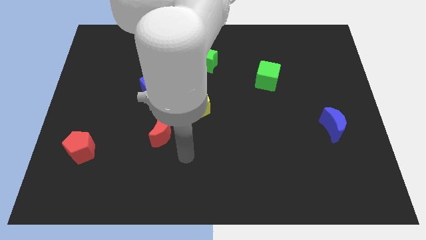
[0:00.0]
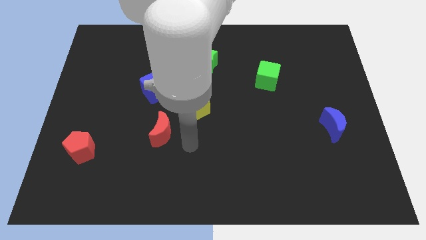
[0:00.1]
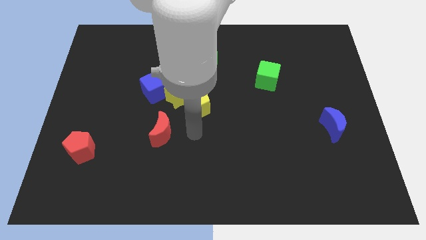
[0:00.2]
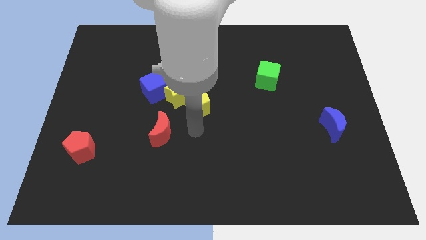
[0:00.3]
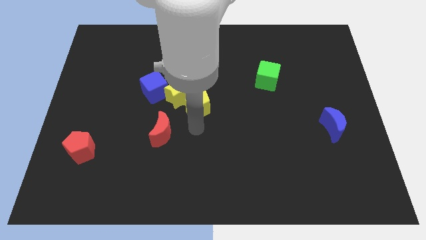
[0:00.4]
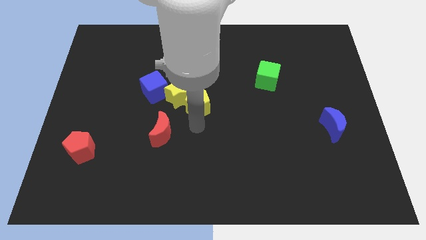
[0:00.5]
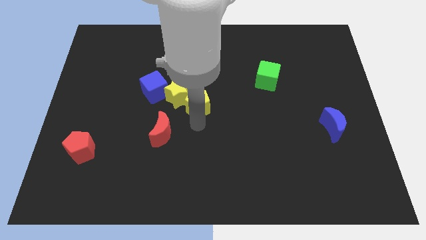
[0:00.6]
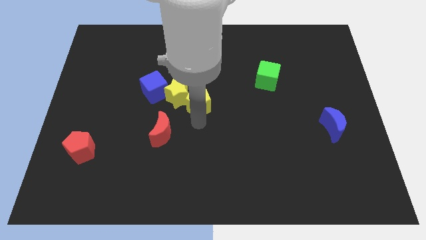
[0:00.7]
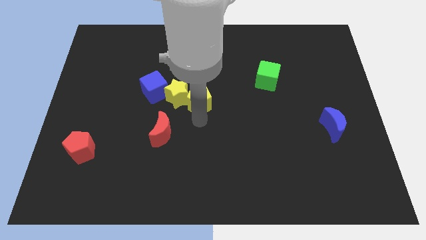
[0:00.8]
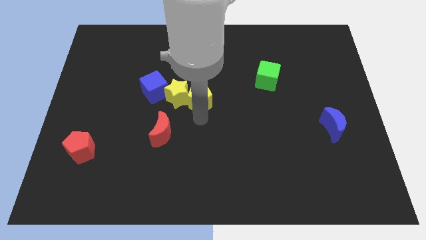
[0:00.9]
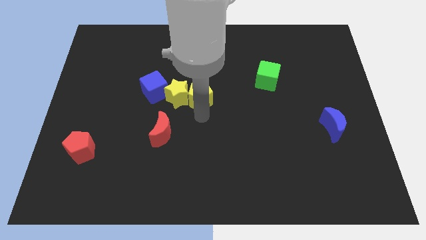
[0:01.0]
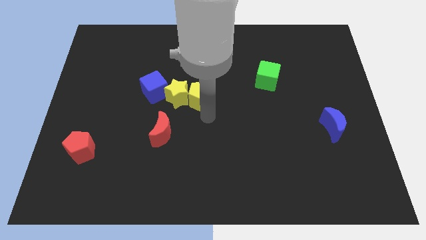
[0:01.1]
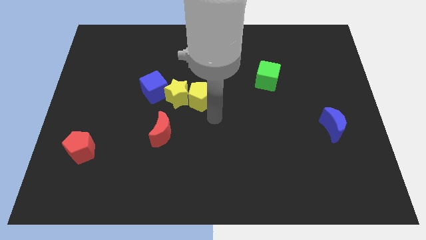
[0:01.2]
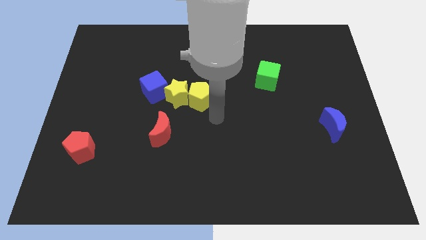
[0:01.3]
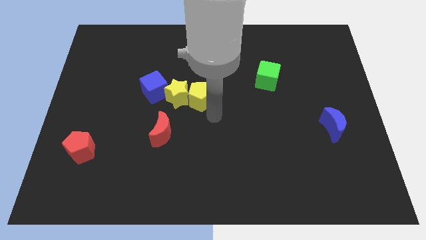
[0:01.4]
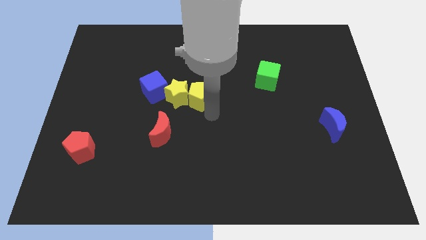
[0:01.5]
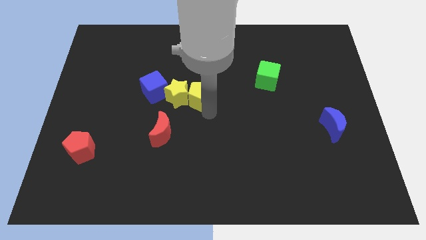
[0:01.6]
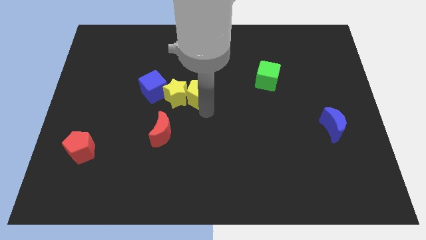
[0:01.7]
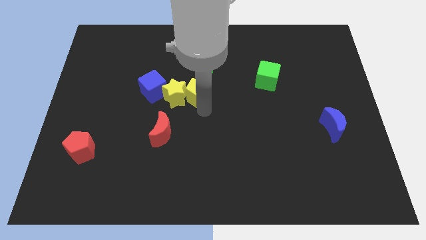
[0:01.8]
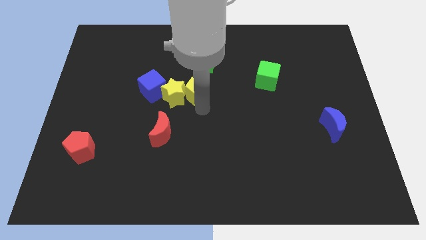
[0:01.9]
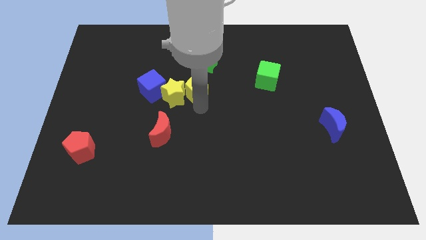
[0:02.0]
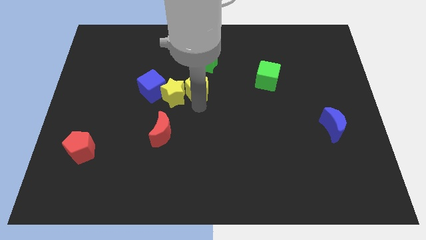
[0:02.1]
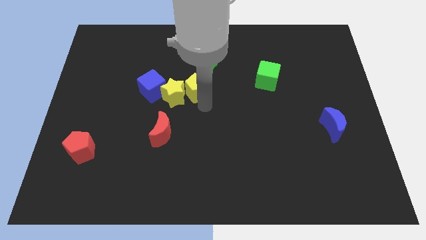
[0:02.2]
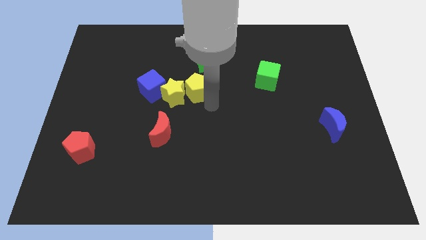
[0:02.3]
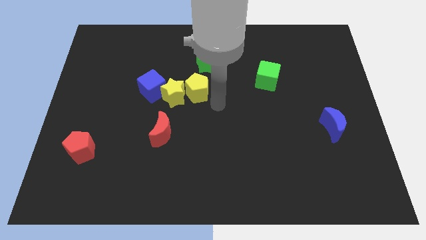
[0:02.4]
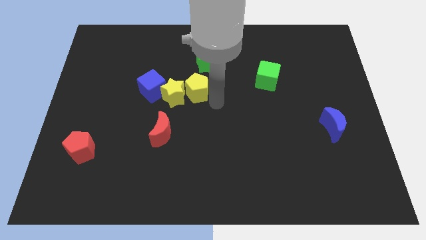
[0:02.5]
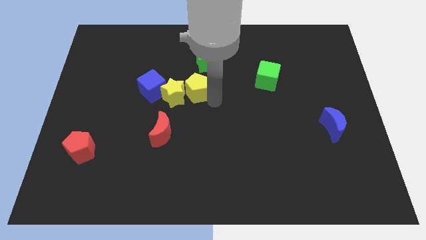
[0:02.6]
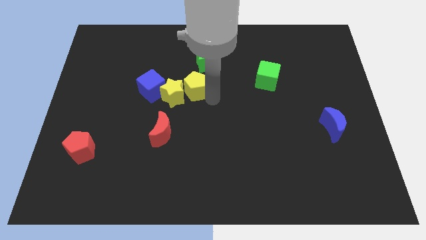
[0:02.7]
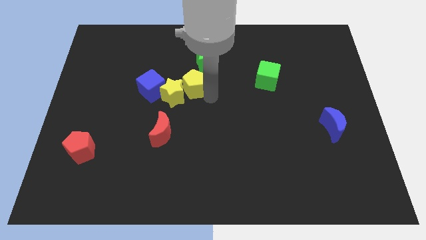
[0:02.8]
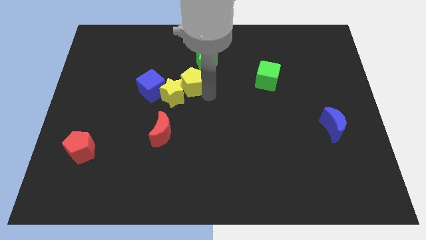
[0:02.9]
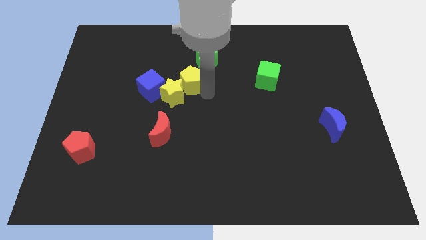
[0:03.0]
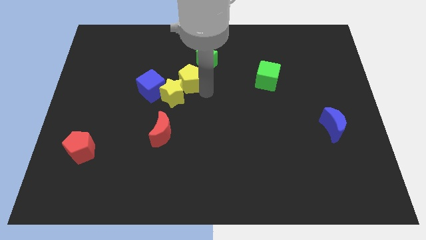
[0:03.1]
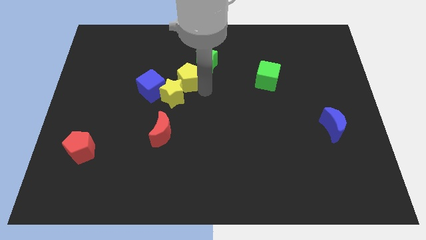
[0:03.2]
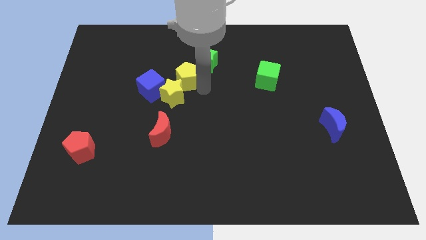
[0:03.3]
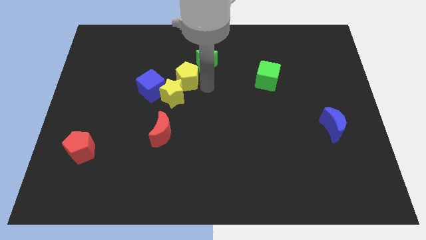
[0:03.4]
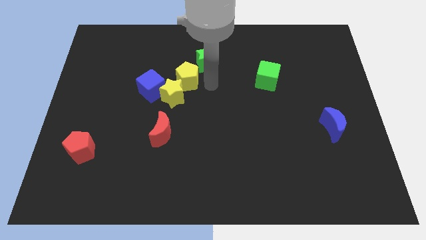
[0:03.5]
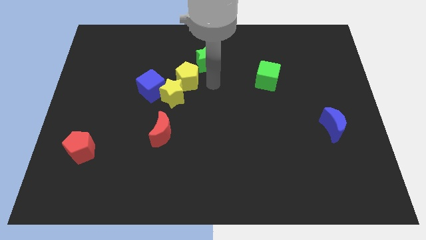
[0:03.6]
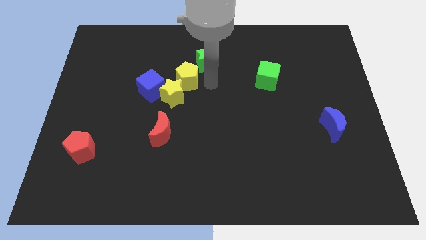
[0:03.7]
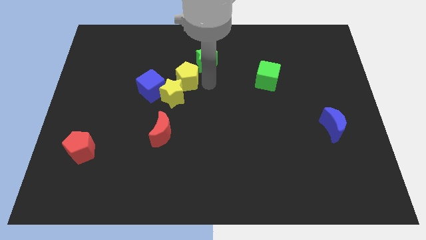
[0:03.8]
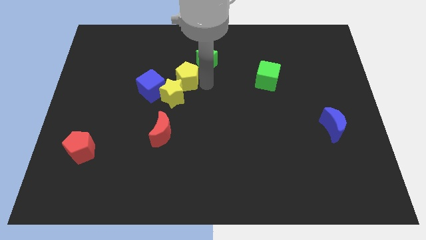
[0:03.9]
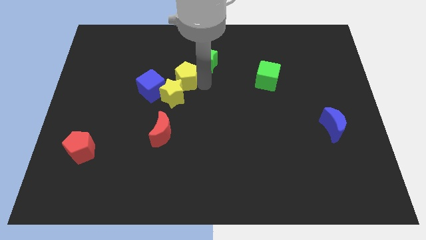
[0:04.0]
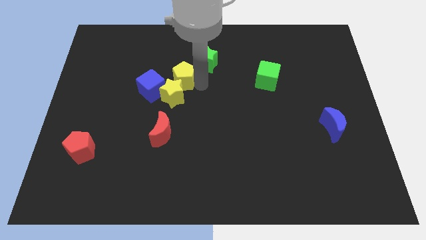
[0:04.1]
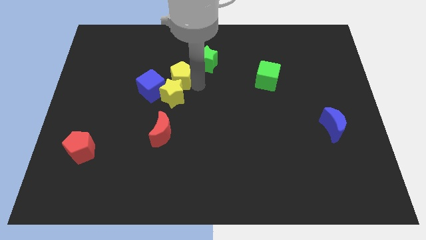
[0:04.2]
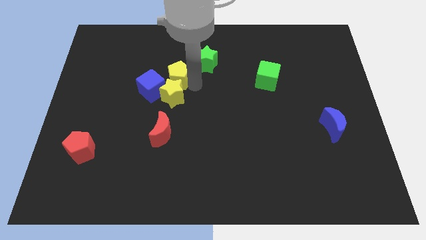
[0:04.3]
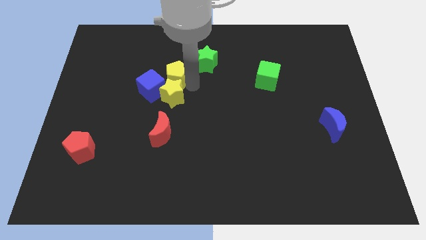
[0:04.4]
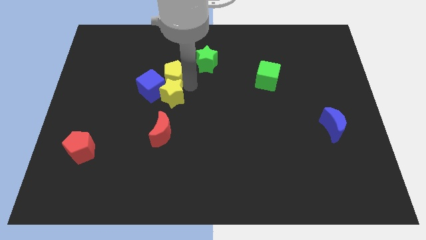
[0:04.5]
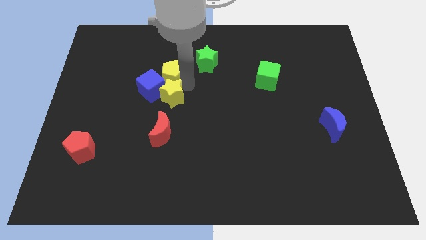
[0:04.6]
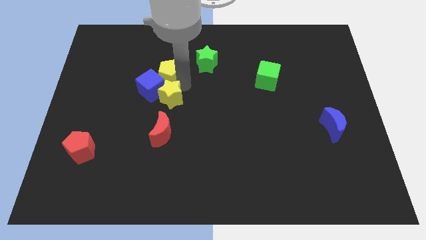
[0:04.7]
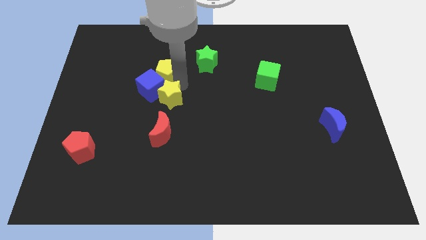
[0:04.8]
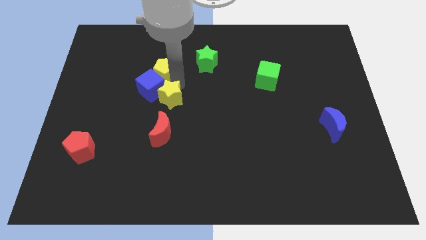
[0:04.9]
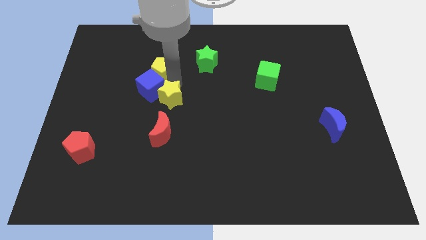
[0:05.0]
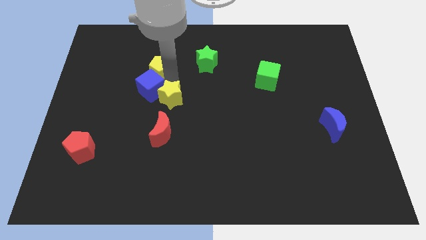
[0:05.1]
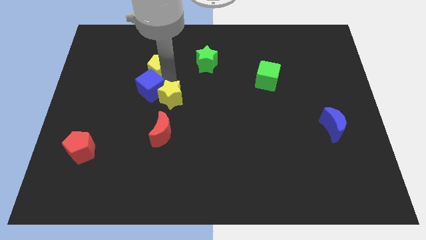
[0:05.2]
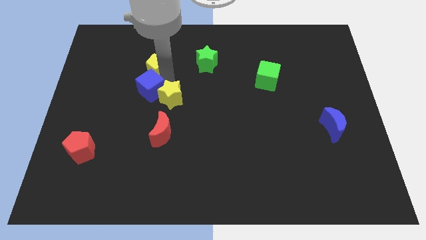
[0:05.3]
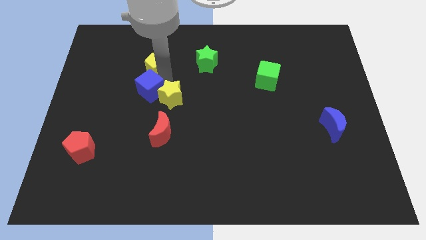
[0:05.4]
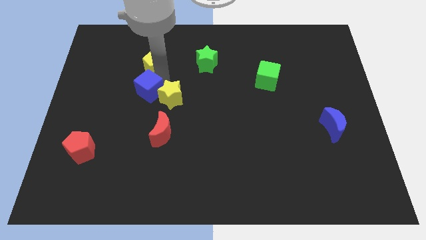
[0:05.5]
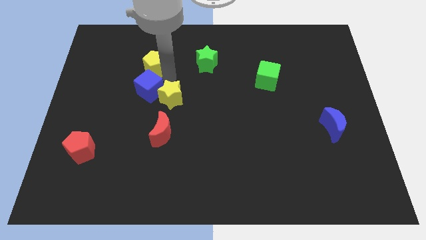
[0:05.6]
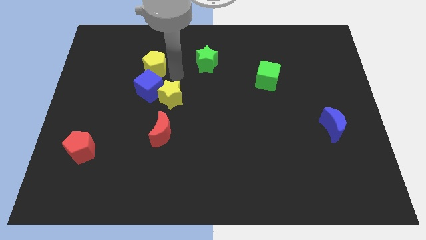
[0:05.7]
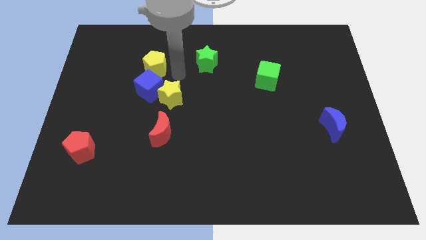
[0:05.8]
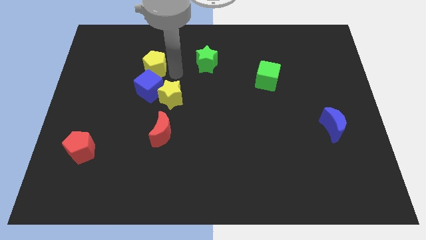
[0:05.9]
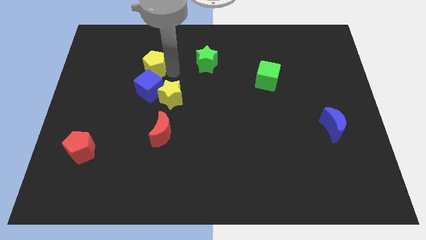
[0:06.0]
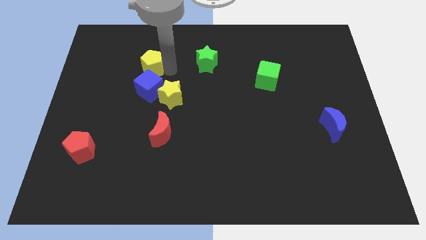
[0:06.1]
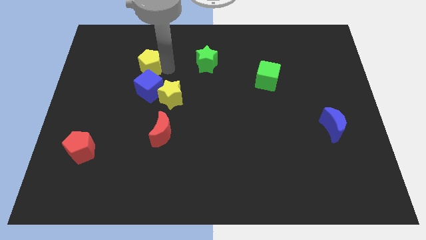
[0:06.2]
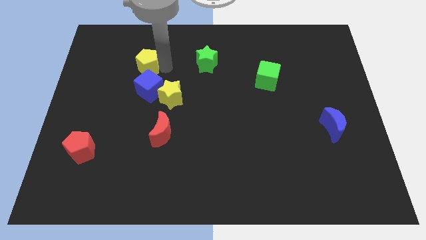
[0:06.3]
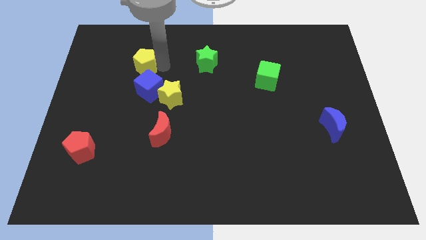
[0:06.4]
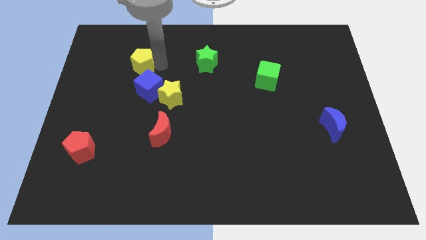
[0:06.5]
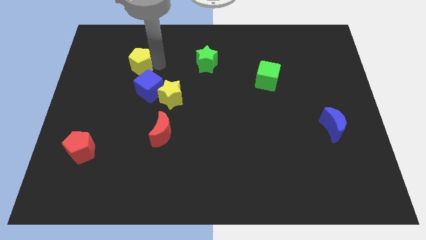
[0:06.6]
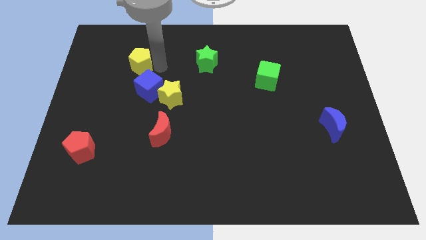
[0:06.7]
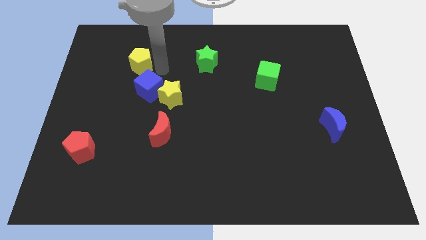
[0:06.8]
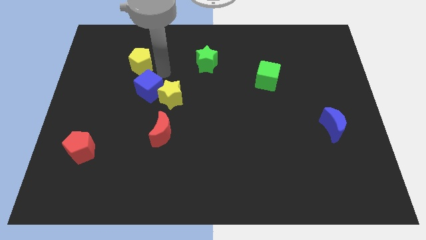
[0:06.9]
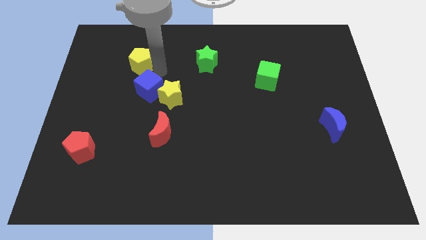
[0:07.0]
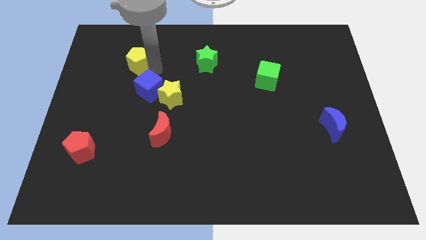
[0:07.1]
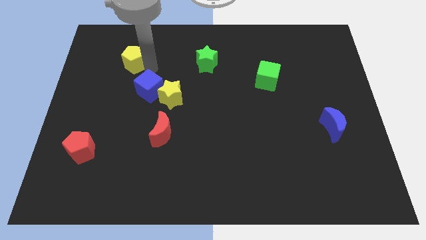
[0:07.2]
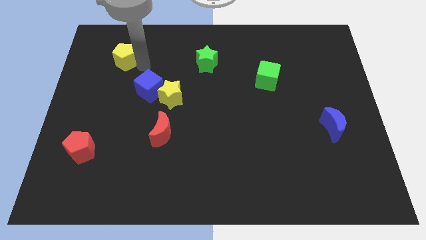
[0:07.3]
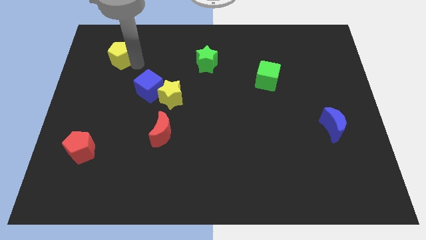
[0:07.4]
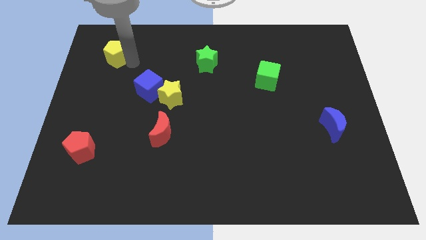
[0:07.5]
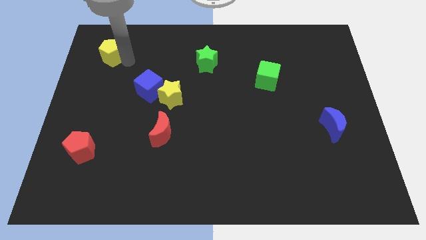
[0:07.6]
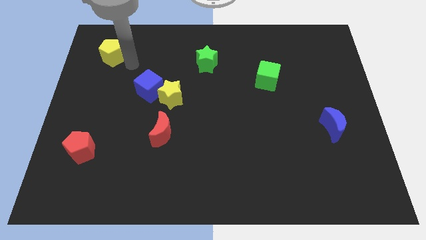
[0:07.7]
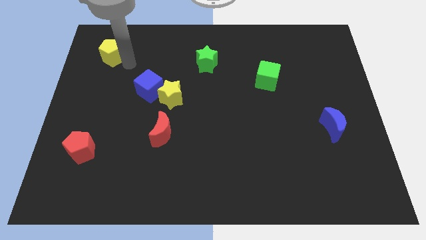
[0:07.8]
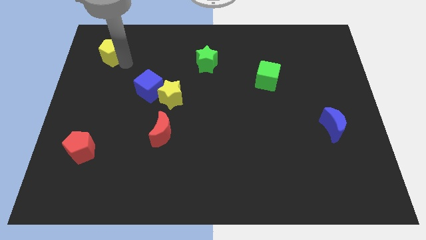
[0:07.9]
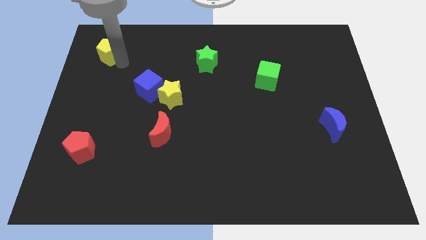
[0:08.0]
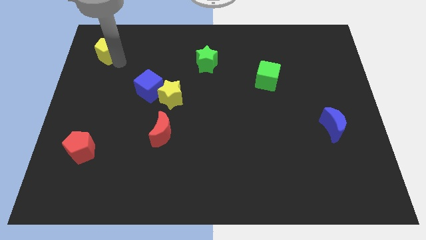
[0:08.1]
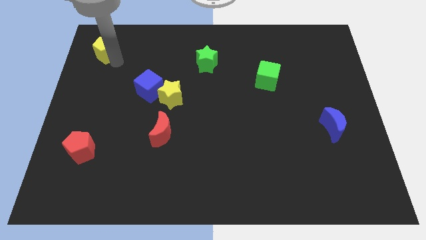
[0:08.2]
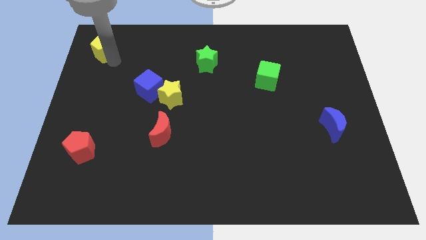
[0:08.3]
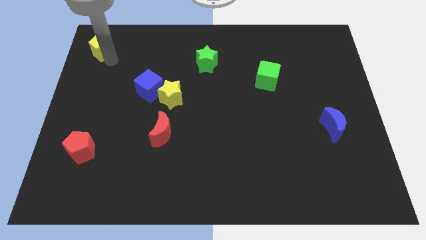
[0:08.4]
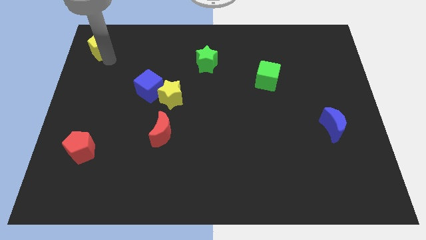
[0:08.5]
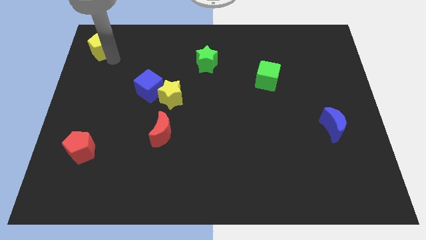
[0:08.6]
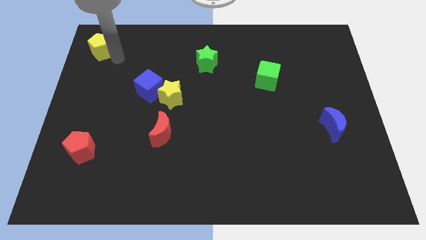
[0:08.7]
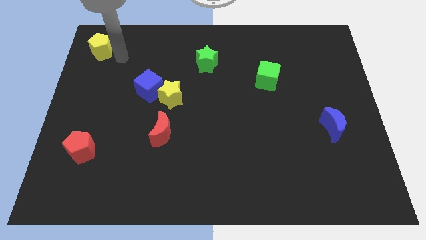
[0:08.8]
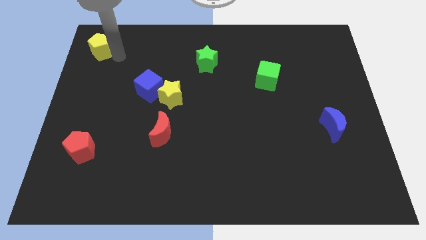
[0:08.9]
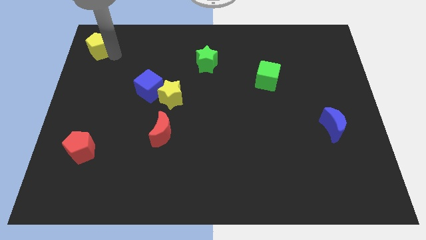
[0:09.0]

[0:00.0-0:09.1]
push the yellow pentagon to the upper left corner
